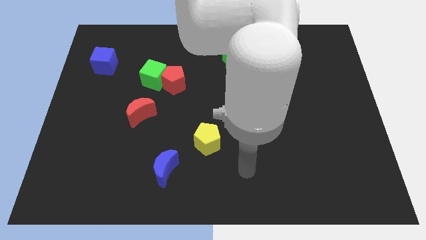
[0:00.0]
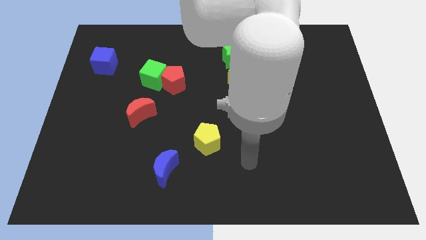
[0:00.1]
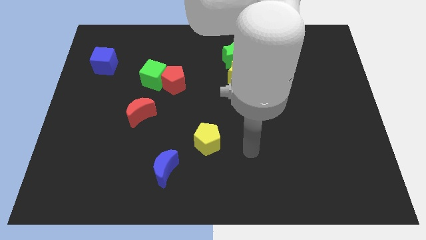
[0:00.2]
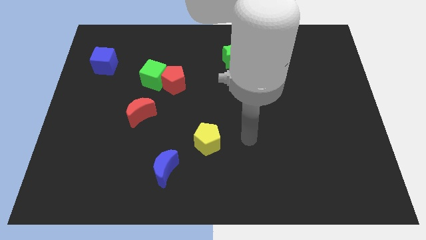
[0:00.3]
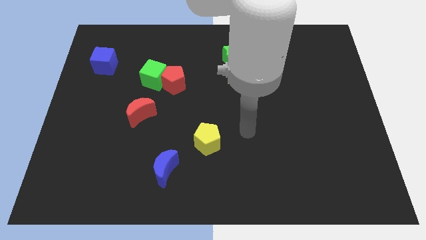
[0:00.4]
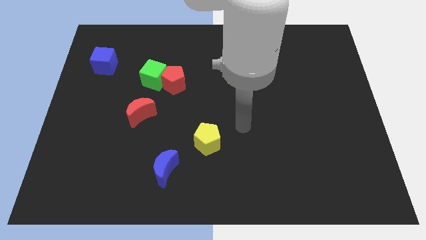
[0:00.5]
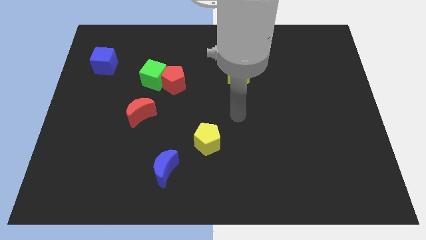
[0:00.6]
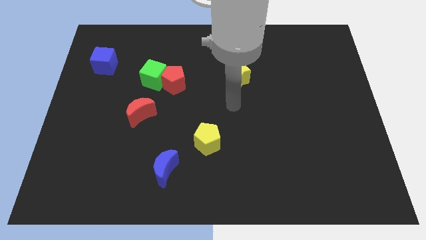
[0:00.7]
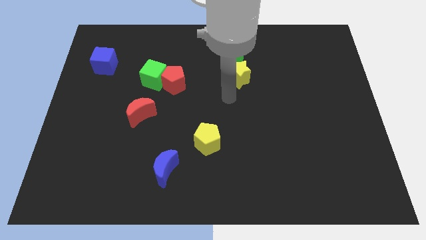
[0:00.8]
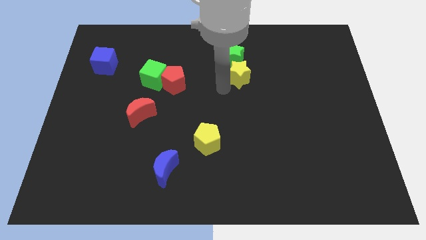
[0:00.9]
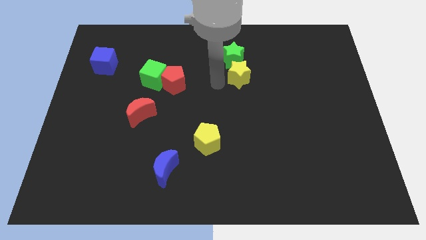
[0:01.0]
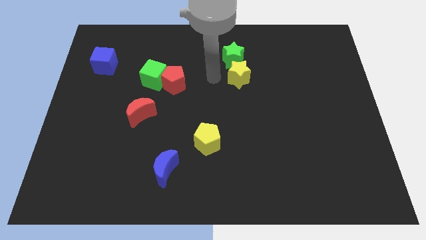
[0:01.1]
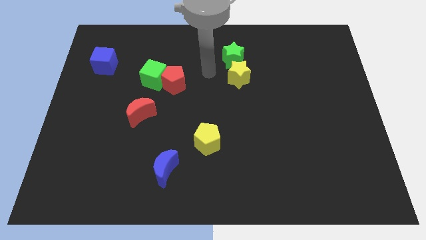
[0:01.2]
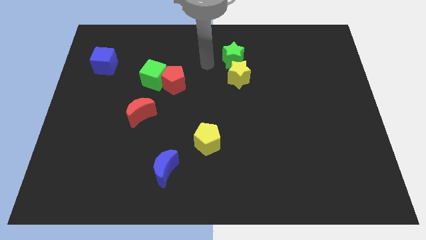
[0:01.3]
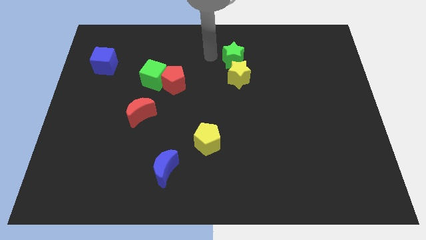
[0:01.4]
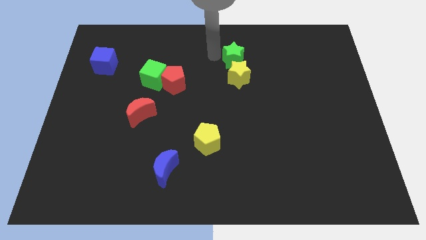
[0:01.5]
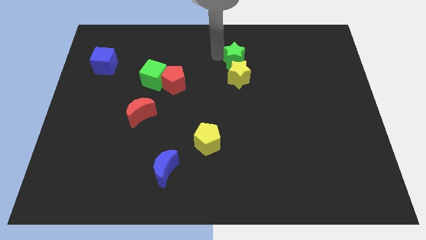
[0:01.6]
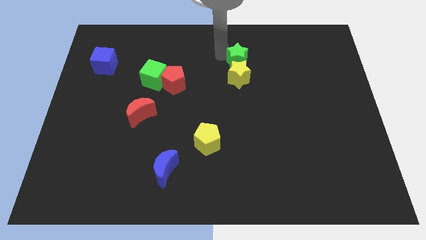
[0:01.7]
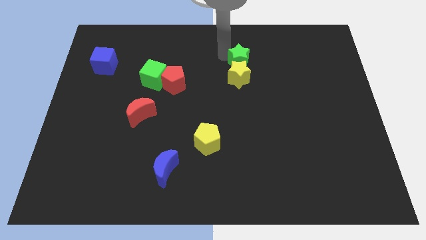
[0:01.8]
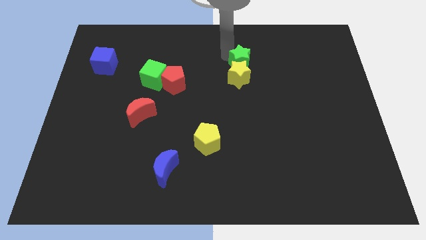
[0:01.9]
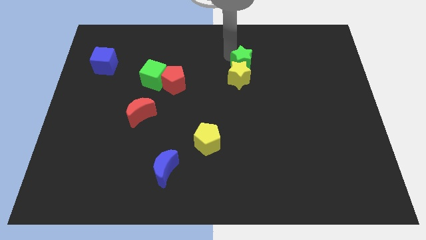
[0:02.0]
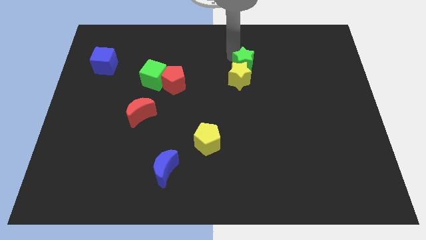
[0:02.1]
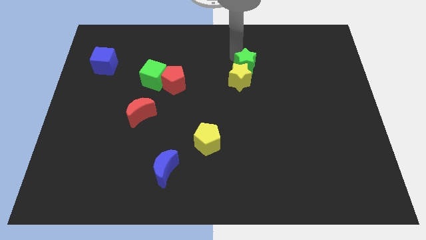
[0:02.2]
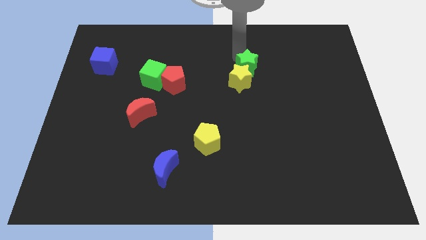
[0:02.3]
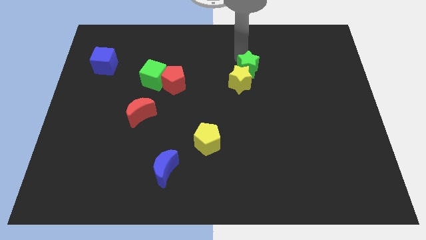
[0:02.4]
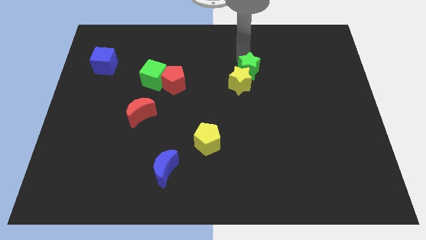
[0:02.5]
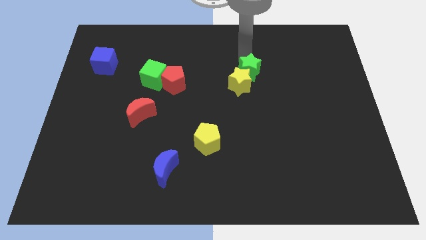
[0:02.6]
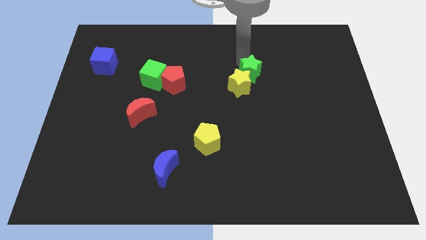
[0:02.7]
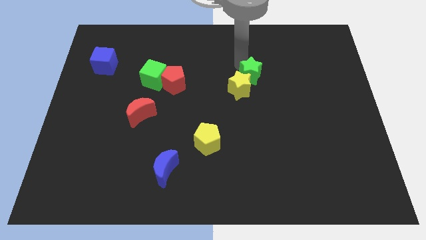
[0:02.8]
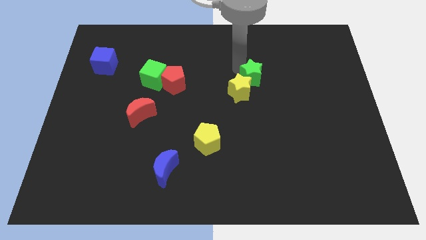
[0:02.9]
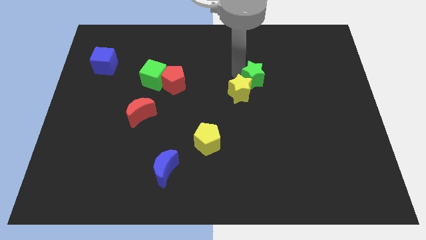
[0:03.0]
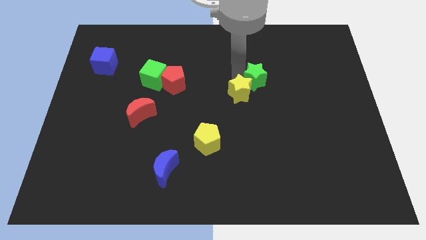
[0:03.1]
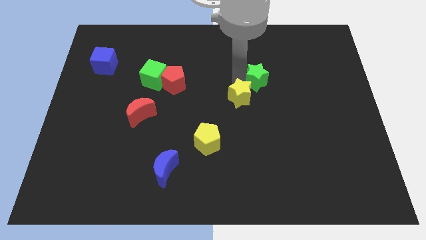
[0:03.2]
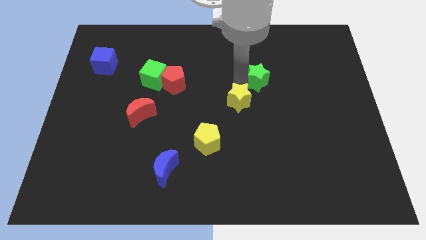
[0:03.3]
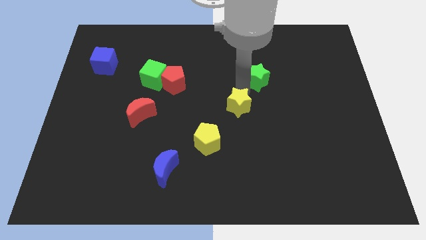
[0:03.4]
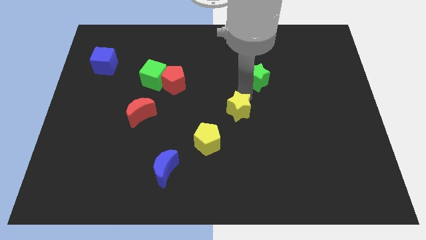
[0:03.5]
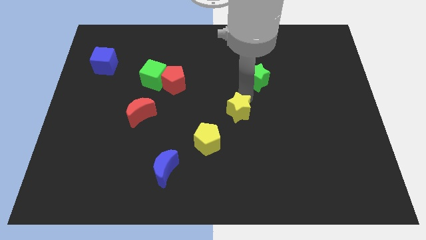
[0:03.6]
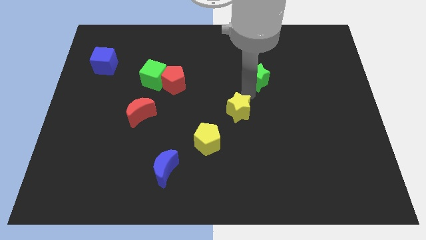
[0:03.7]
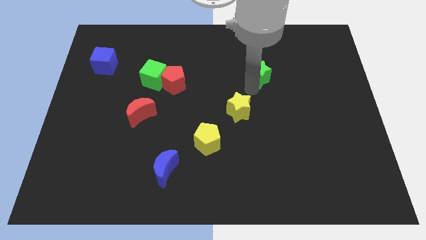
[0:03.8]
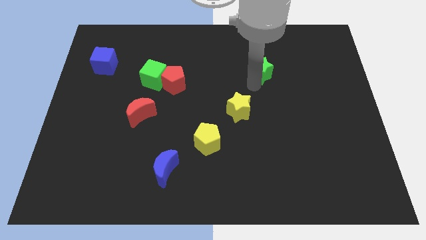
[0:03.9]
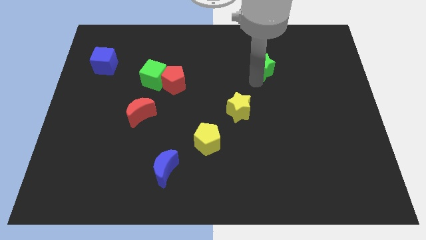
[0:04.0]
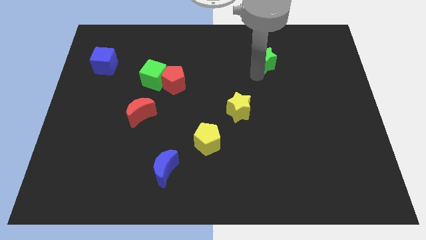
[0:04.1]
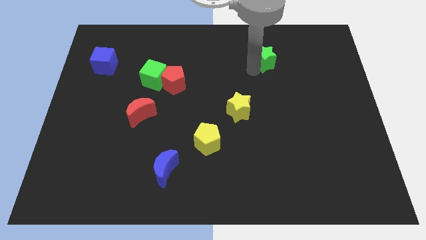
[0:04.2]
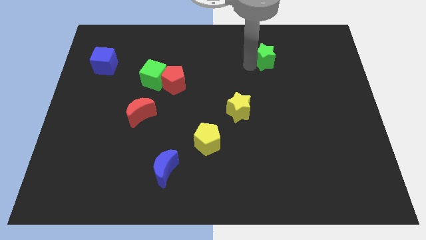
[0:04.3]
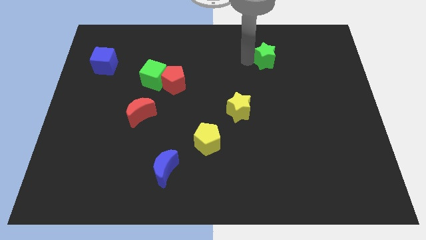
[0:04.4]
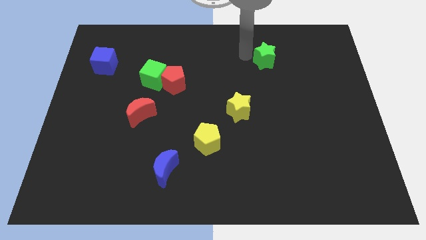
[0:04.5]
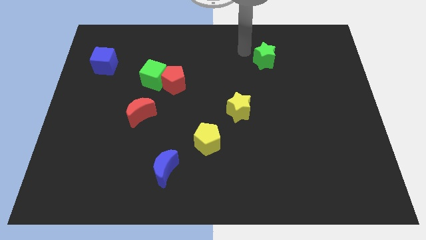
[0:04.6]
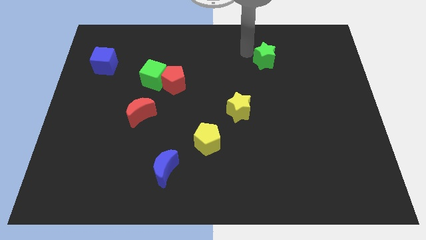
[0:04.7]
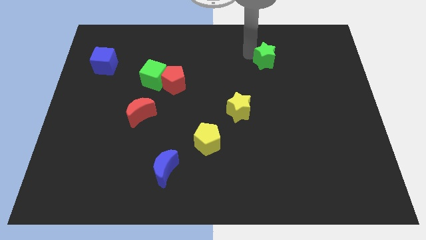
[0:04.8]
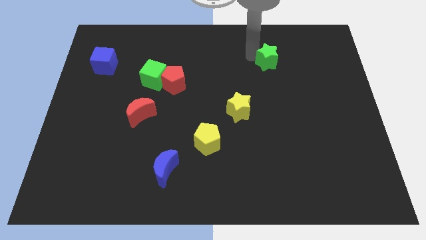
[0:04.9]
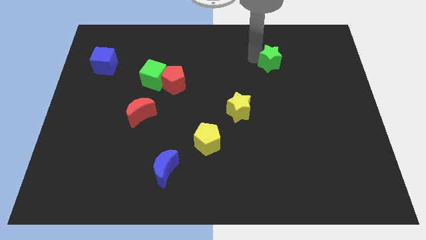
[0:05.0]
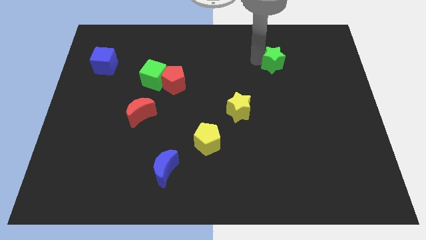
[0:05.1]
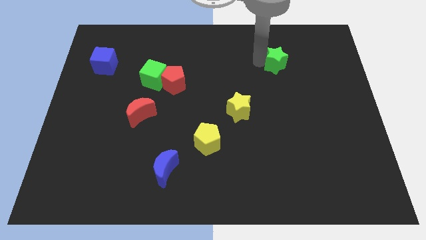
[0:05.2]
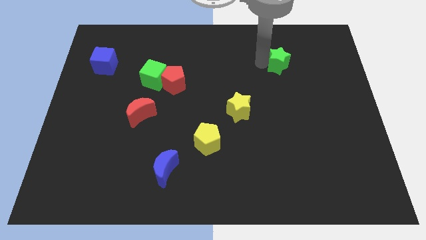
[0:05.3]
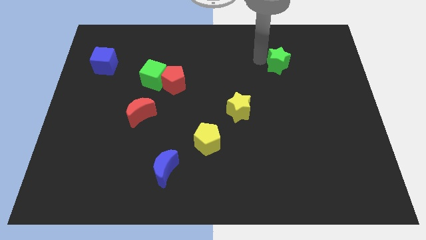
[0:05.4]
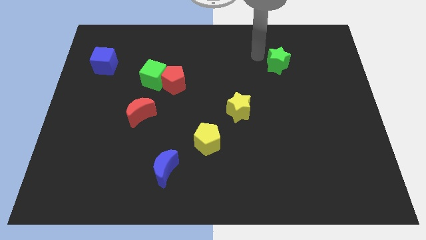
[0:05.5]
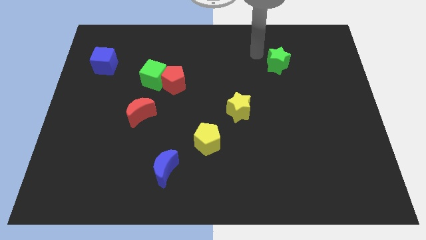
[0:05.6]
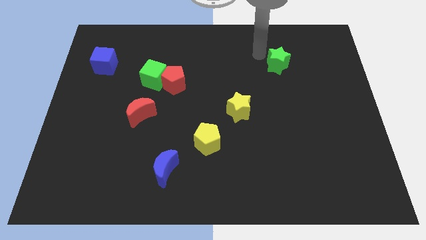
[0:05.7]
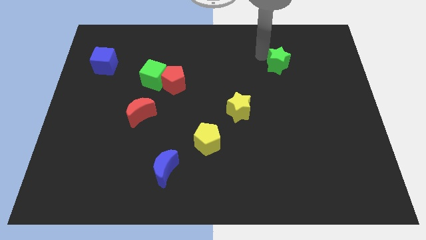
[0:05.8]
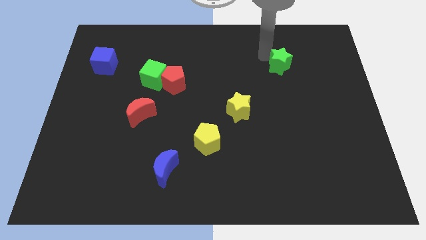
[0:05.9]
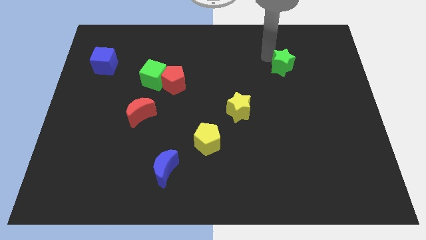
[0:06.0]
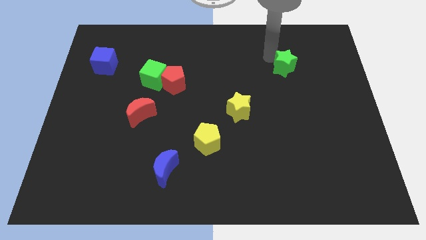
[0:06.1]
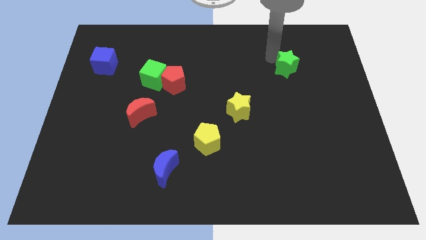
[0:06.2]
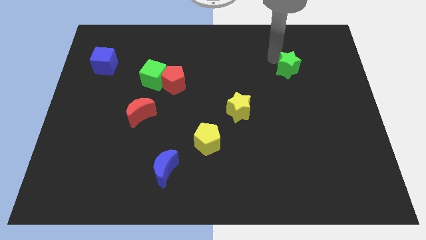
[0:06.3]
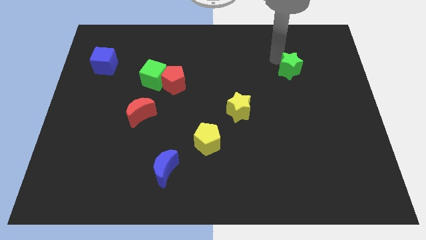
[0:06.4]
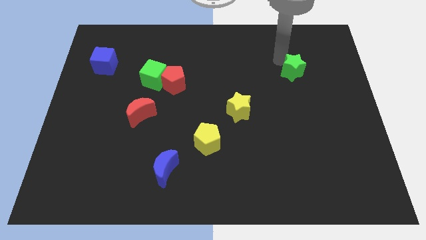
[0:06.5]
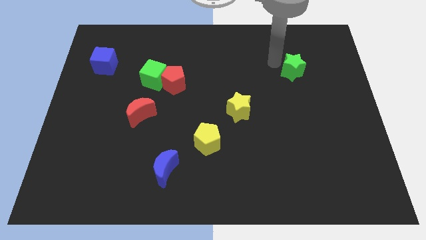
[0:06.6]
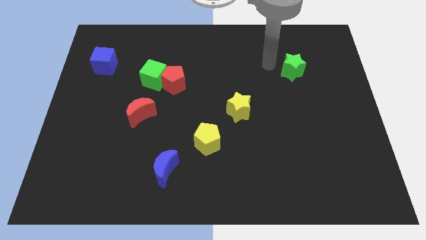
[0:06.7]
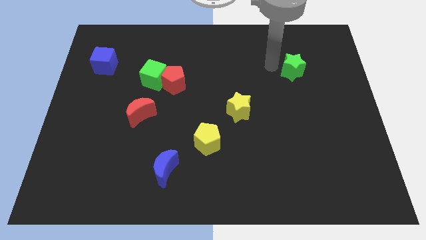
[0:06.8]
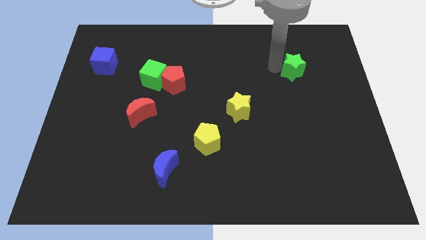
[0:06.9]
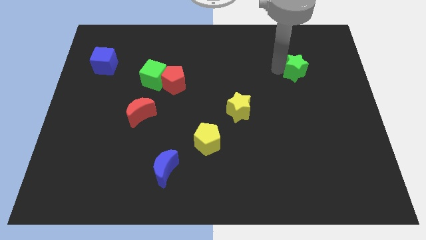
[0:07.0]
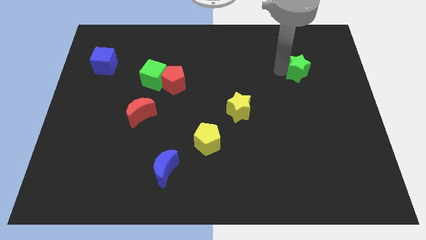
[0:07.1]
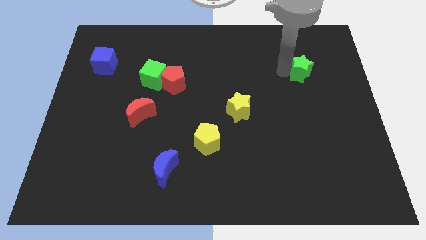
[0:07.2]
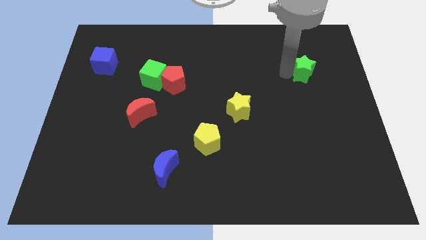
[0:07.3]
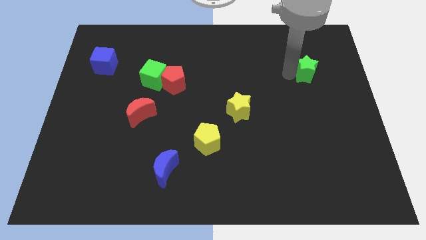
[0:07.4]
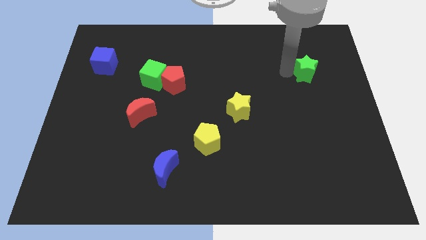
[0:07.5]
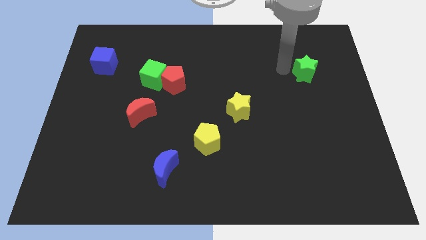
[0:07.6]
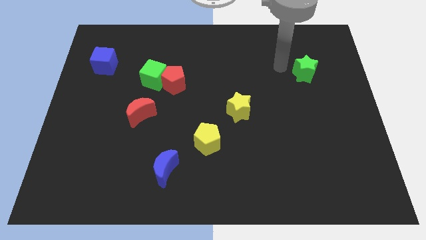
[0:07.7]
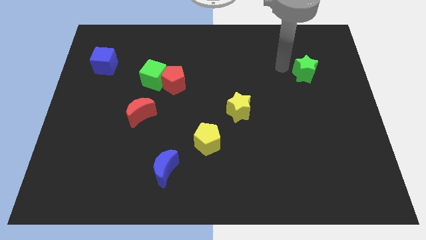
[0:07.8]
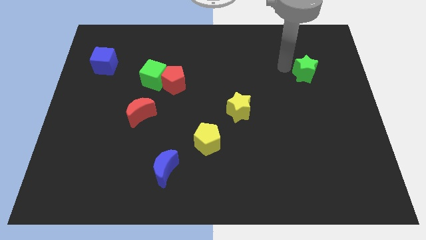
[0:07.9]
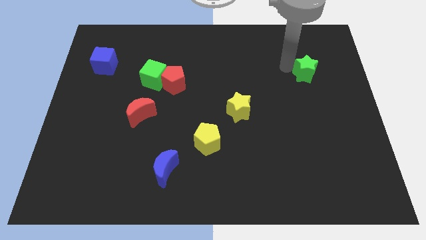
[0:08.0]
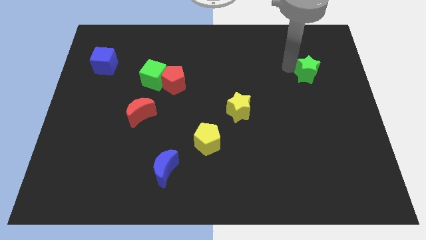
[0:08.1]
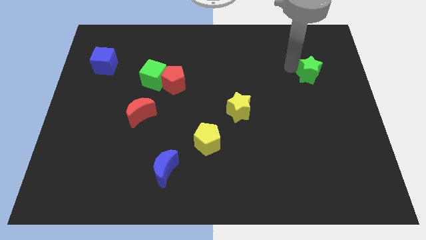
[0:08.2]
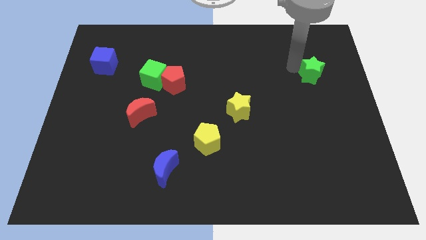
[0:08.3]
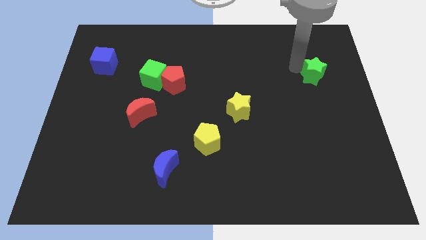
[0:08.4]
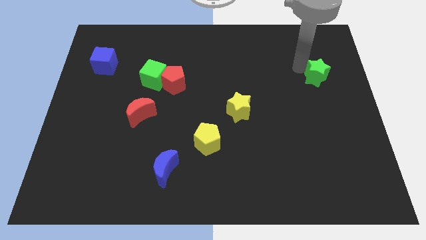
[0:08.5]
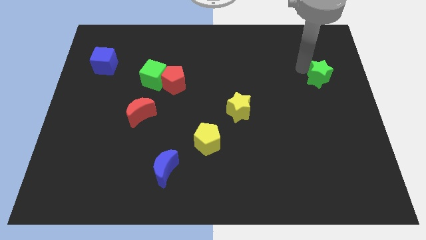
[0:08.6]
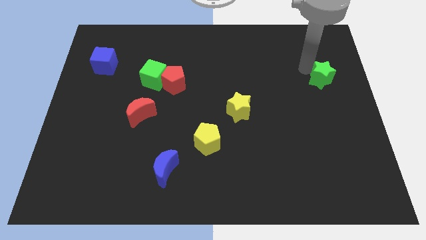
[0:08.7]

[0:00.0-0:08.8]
push the green star to the right side
